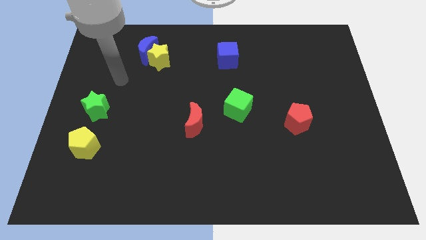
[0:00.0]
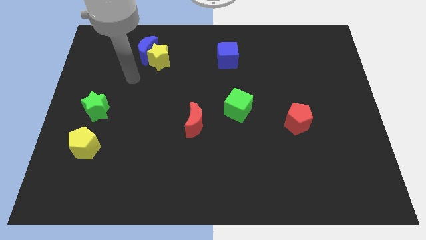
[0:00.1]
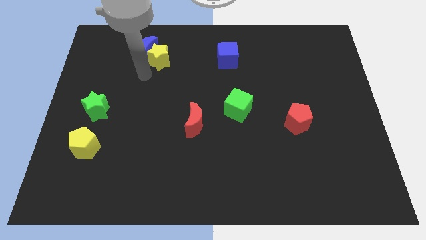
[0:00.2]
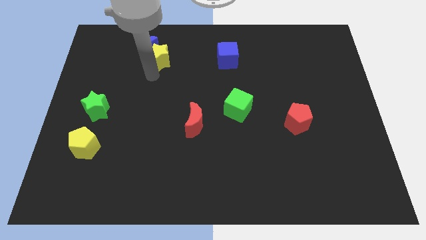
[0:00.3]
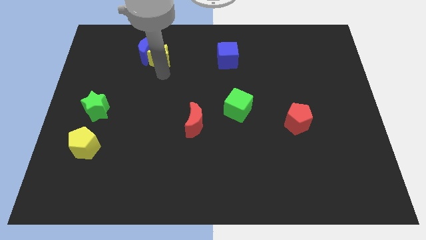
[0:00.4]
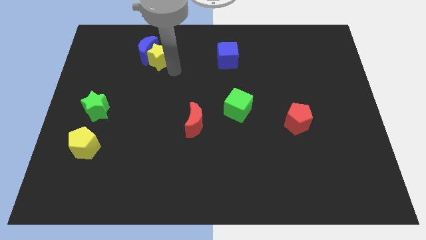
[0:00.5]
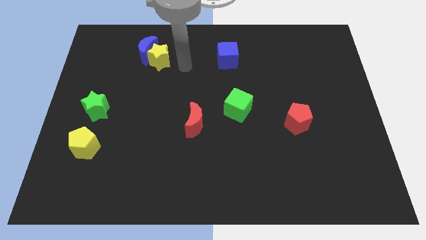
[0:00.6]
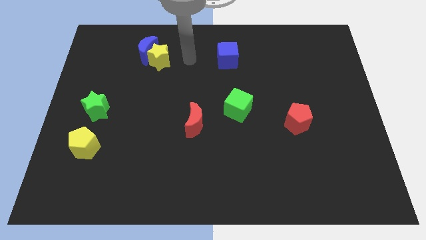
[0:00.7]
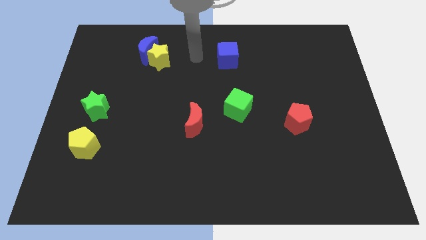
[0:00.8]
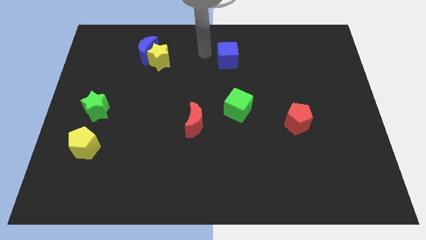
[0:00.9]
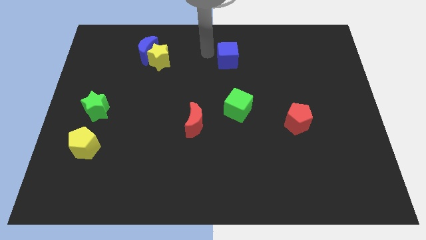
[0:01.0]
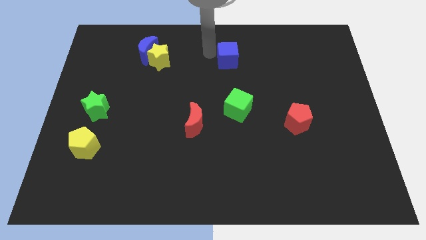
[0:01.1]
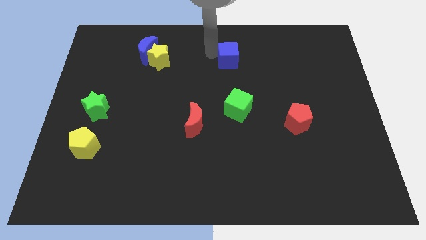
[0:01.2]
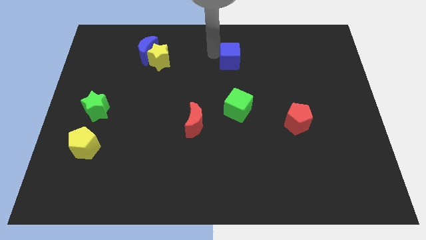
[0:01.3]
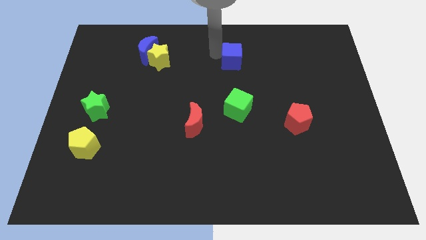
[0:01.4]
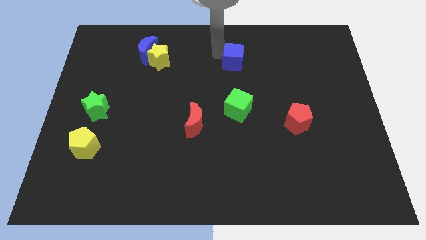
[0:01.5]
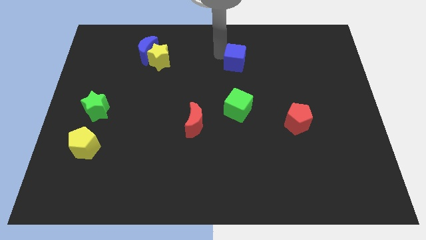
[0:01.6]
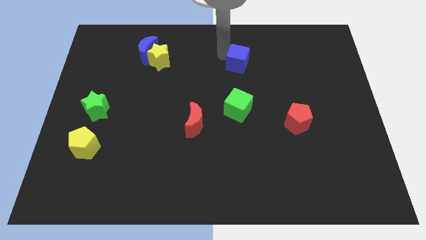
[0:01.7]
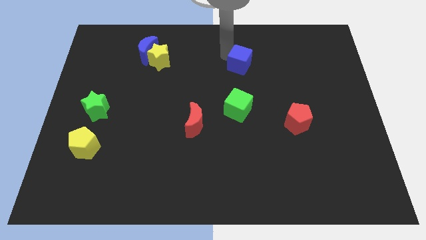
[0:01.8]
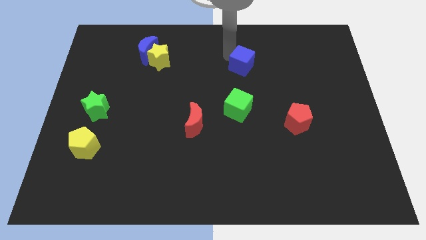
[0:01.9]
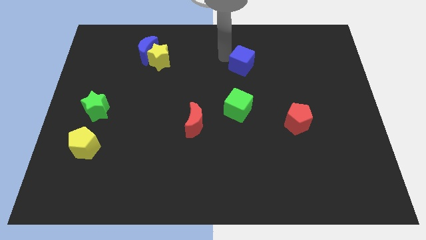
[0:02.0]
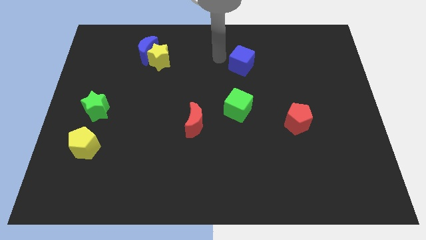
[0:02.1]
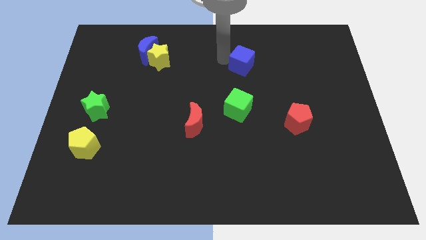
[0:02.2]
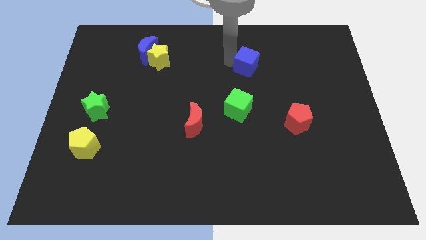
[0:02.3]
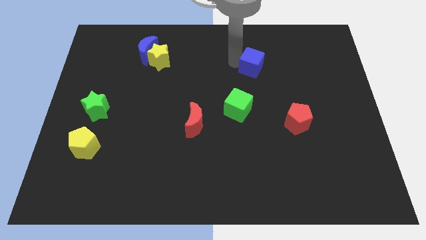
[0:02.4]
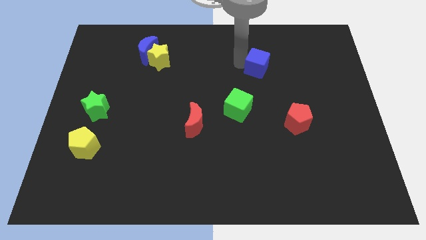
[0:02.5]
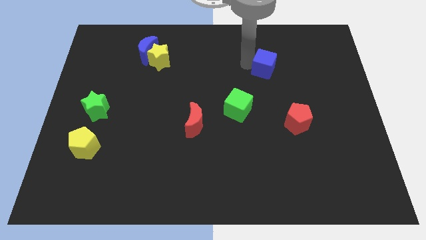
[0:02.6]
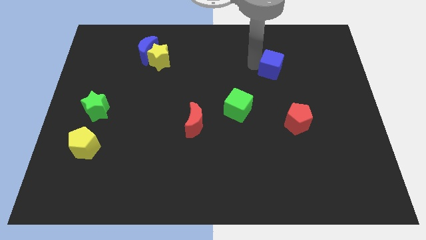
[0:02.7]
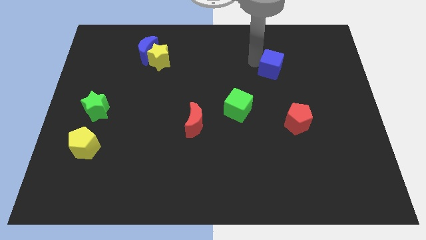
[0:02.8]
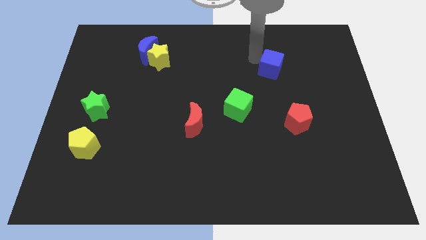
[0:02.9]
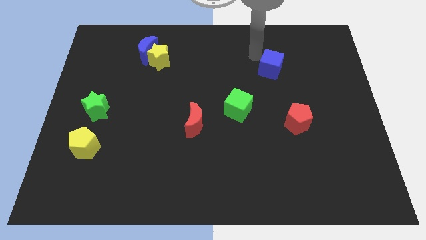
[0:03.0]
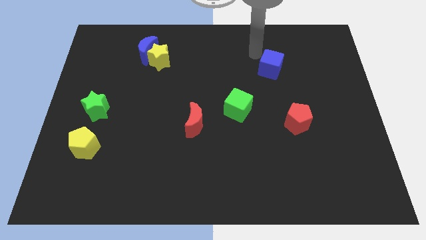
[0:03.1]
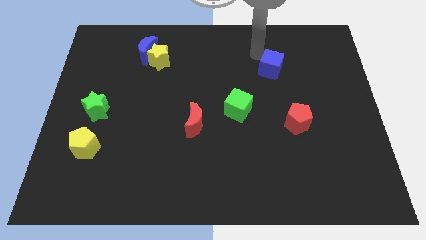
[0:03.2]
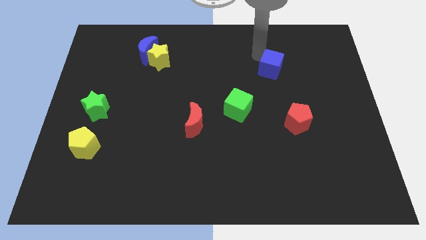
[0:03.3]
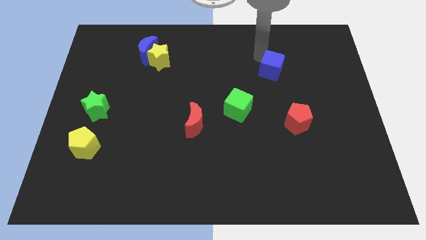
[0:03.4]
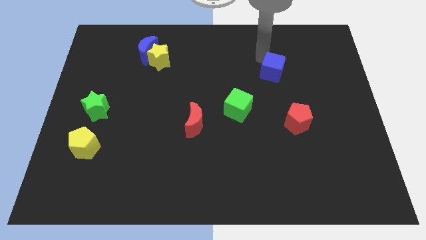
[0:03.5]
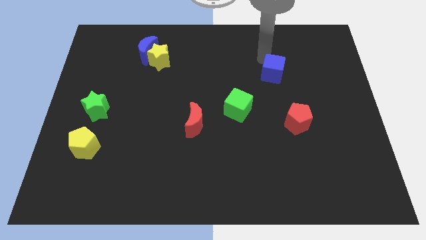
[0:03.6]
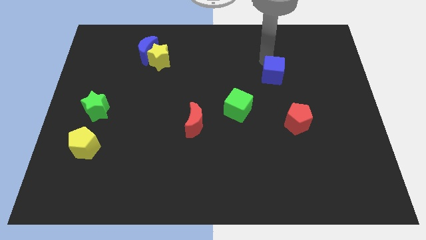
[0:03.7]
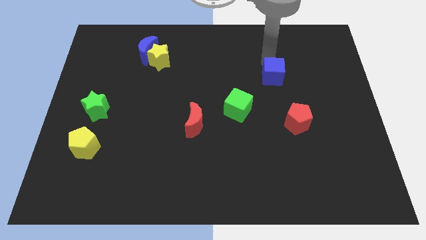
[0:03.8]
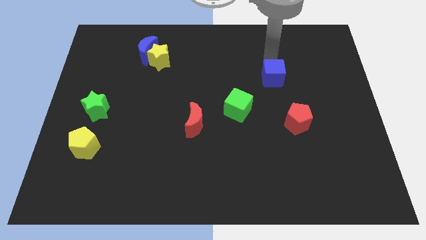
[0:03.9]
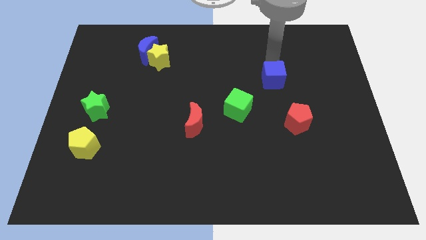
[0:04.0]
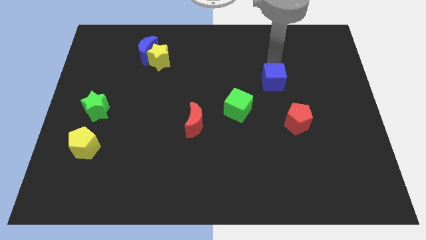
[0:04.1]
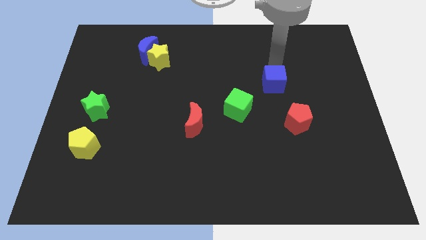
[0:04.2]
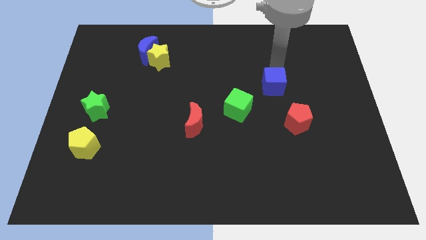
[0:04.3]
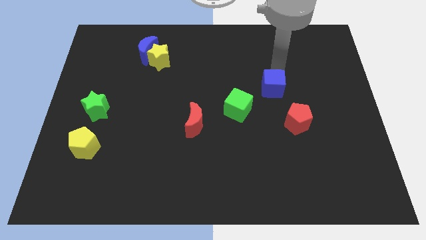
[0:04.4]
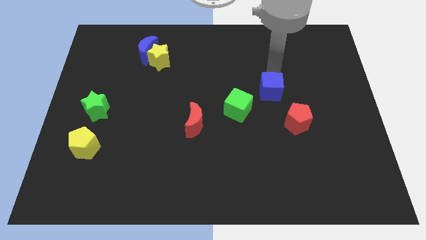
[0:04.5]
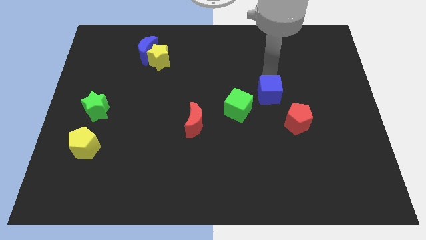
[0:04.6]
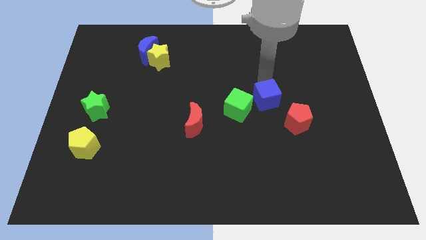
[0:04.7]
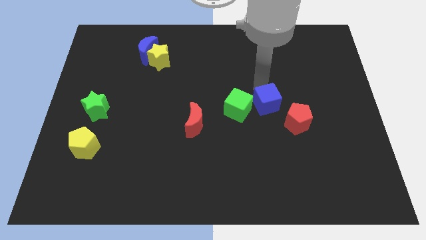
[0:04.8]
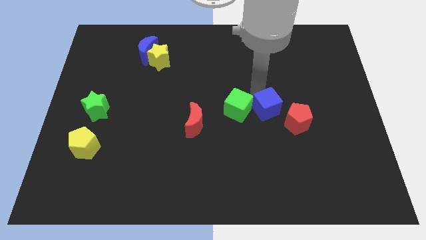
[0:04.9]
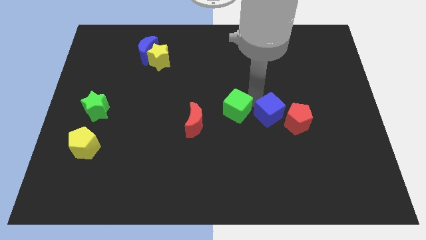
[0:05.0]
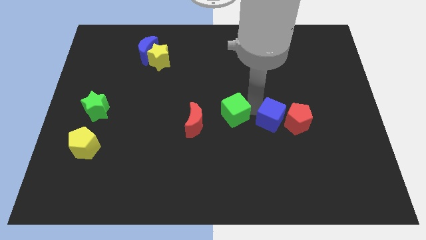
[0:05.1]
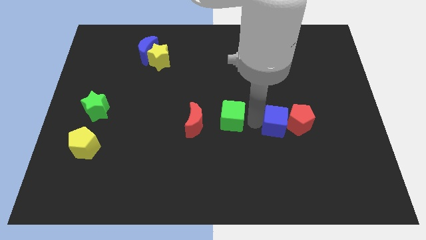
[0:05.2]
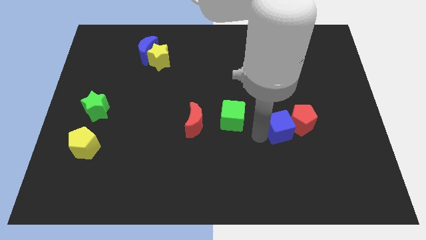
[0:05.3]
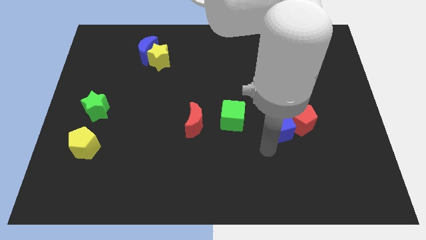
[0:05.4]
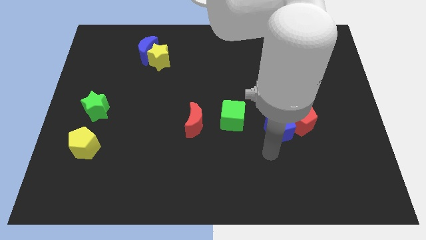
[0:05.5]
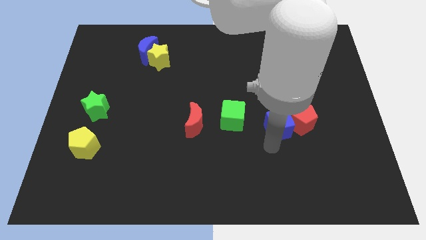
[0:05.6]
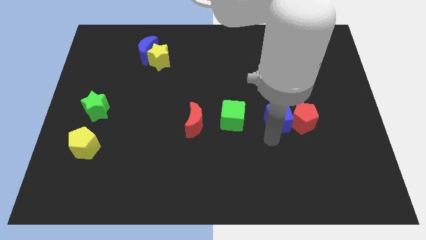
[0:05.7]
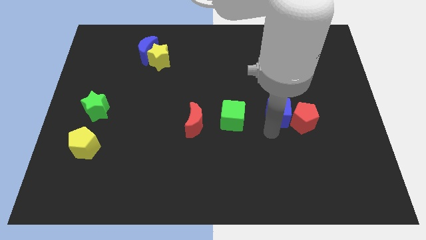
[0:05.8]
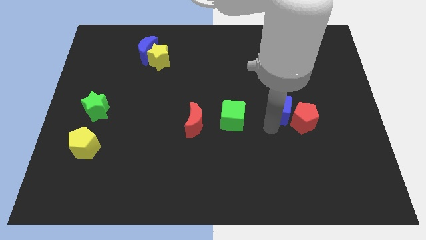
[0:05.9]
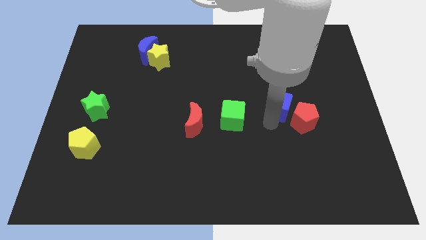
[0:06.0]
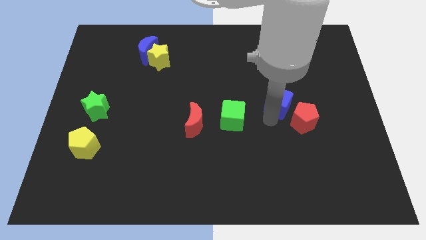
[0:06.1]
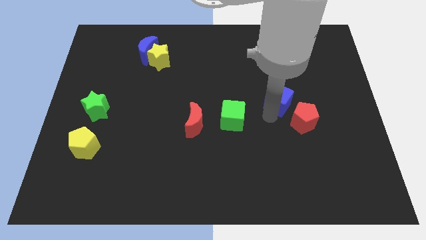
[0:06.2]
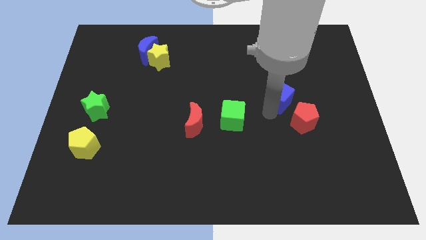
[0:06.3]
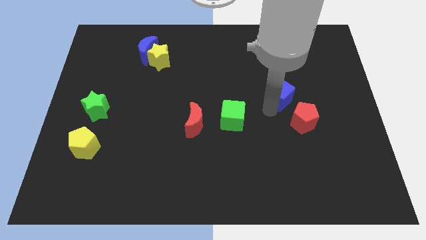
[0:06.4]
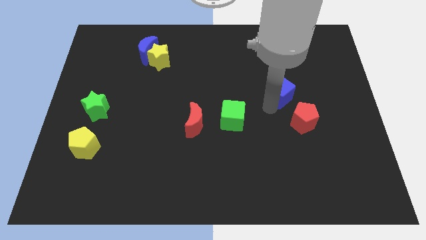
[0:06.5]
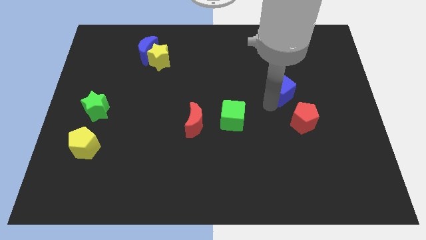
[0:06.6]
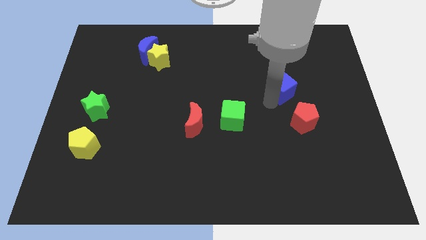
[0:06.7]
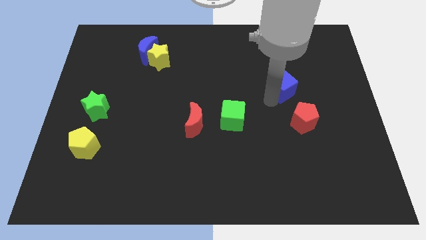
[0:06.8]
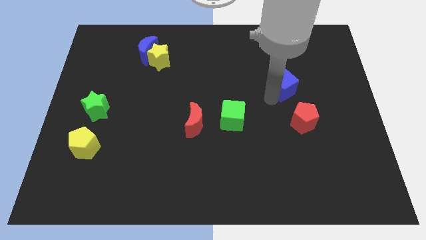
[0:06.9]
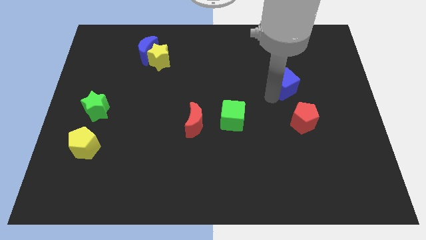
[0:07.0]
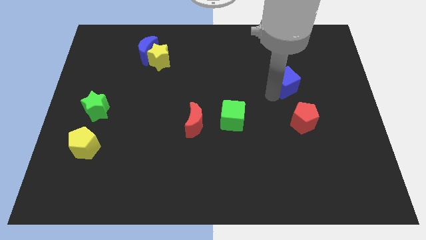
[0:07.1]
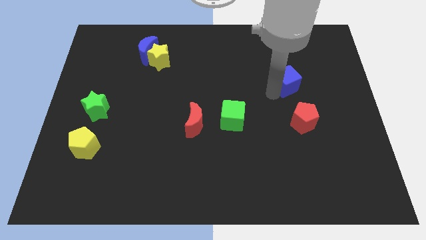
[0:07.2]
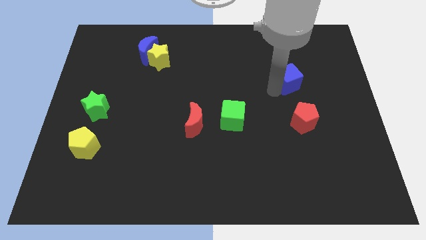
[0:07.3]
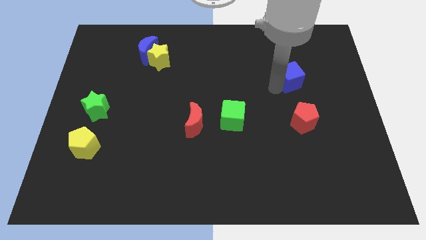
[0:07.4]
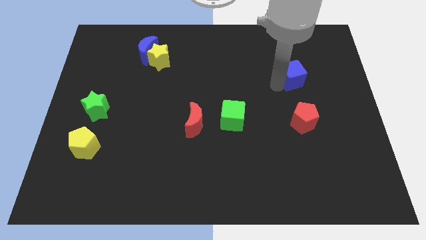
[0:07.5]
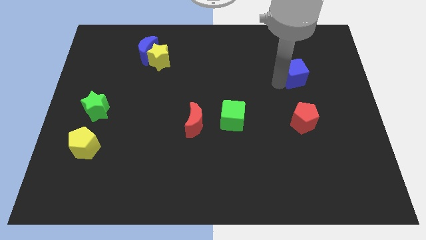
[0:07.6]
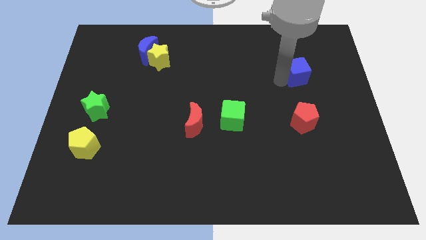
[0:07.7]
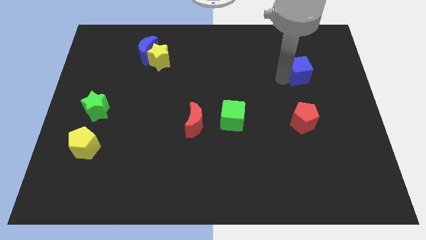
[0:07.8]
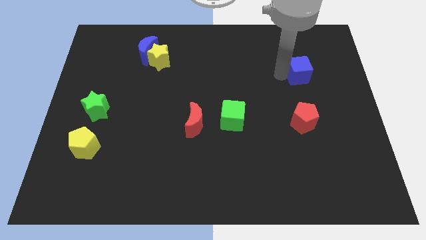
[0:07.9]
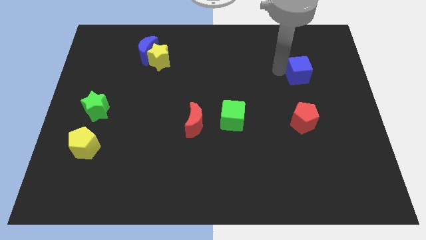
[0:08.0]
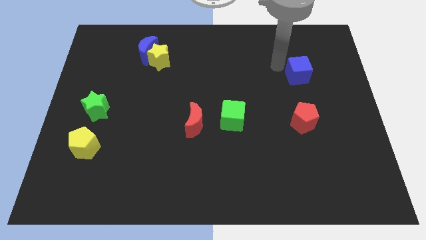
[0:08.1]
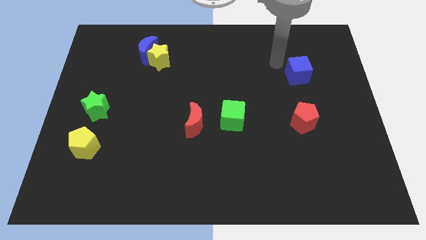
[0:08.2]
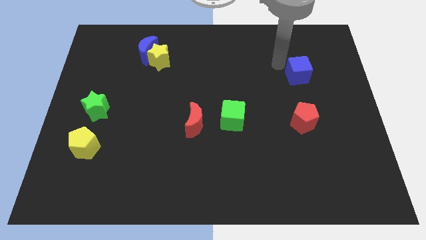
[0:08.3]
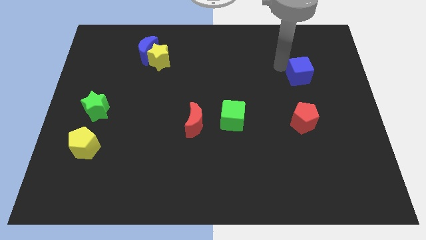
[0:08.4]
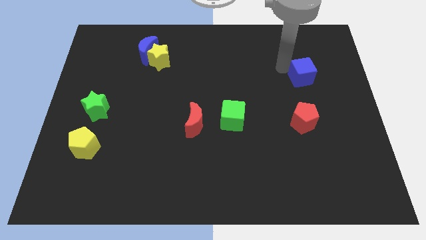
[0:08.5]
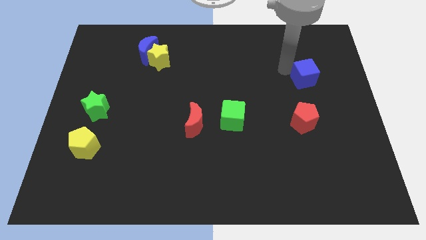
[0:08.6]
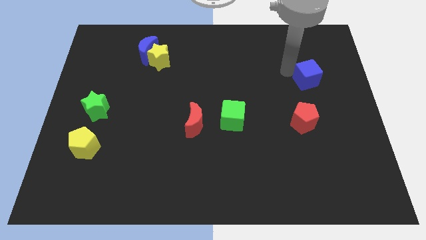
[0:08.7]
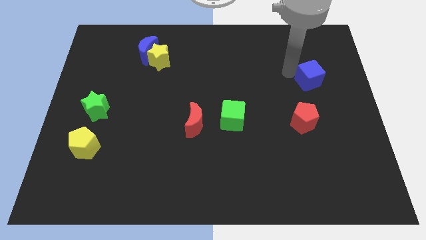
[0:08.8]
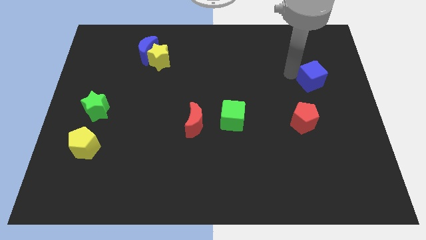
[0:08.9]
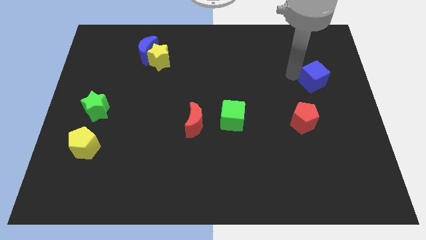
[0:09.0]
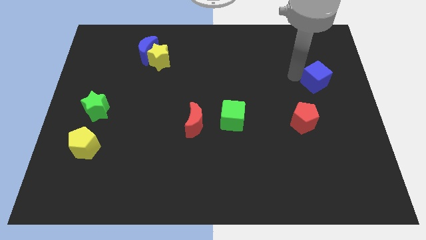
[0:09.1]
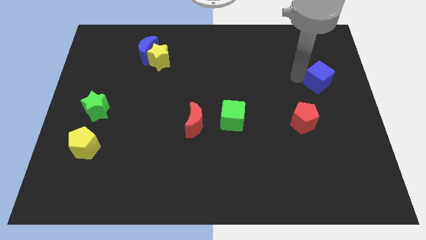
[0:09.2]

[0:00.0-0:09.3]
put the blue cube to the right side of the board
